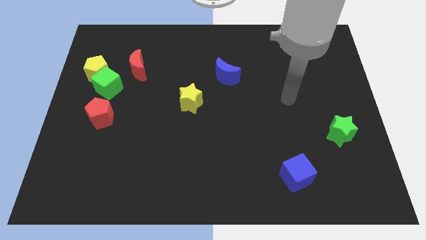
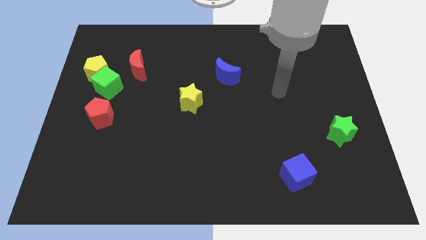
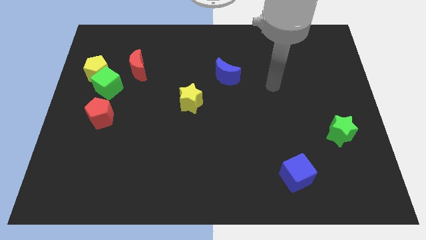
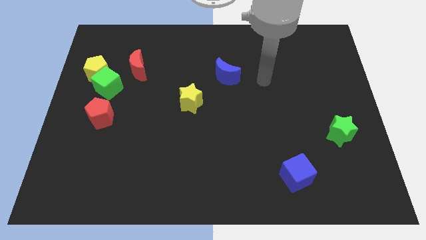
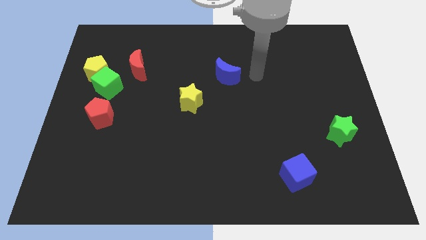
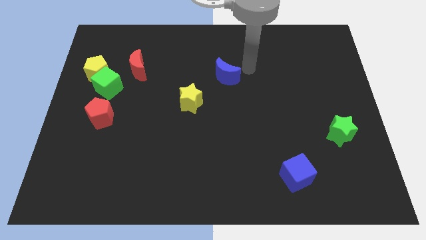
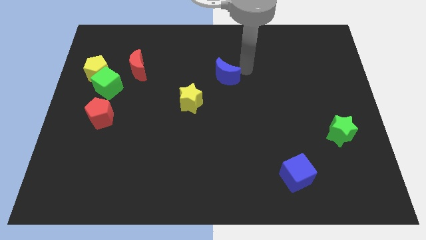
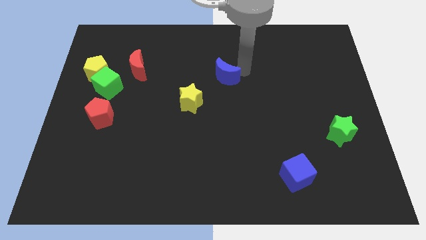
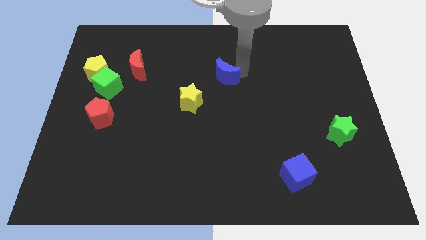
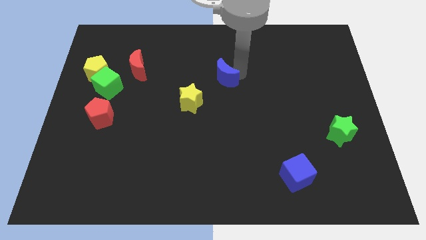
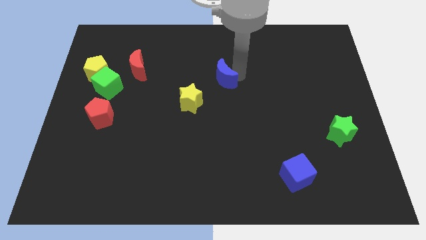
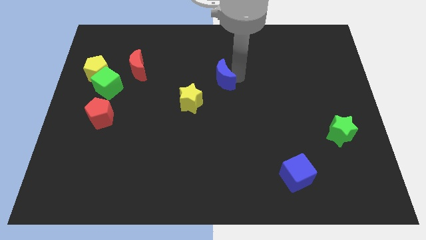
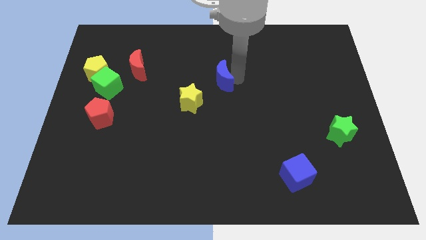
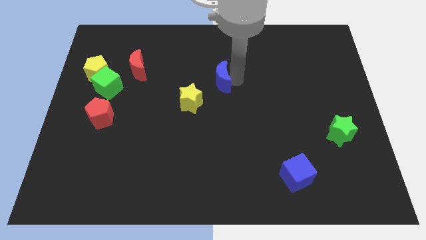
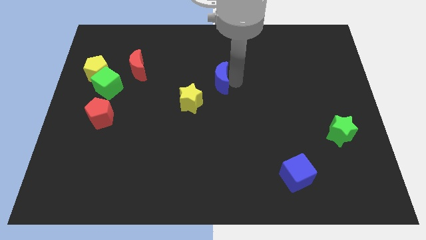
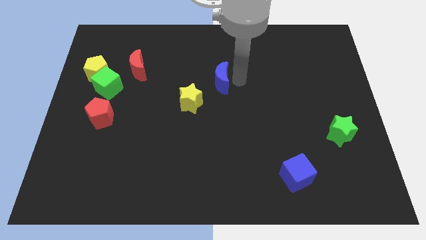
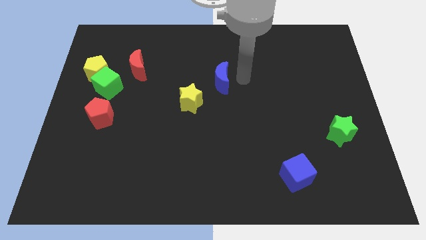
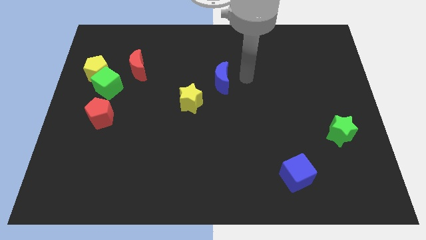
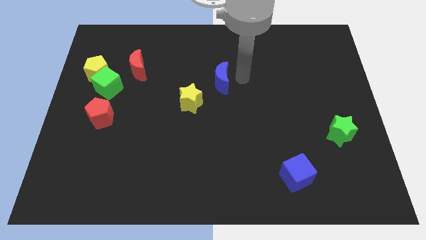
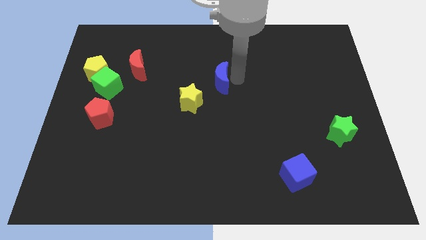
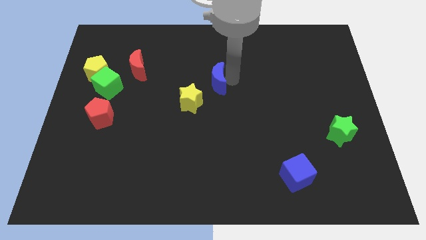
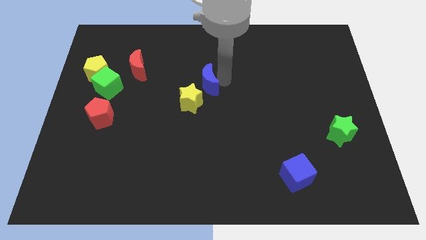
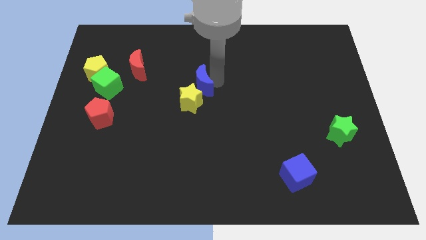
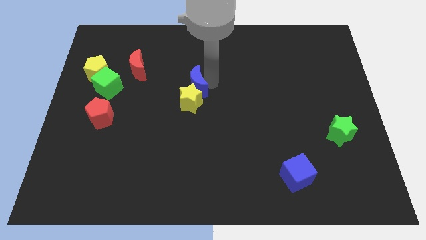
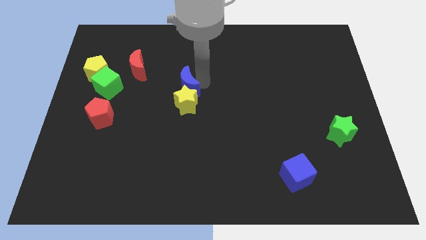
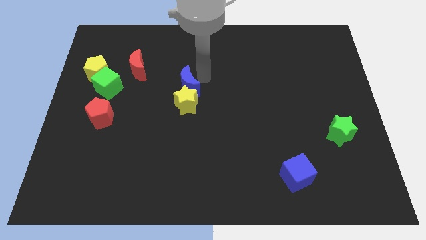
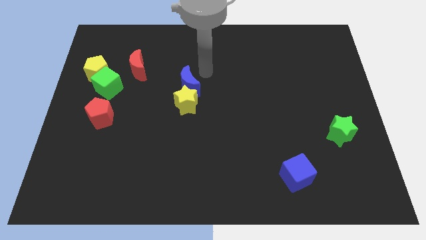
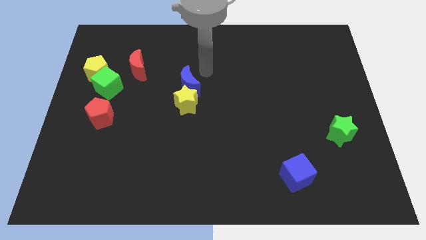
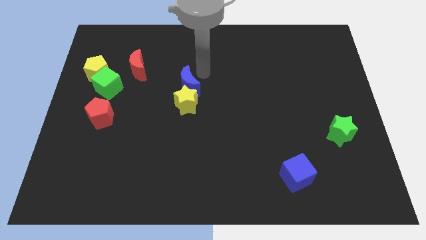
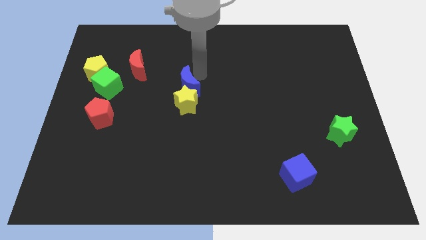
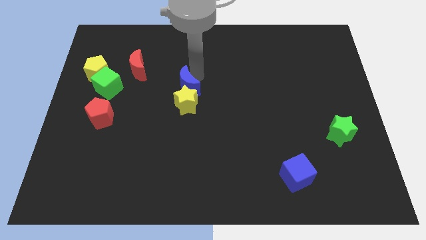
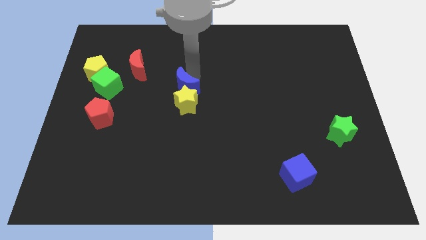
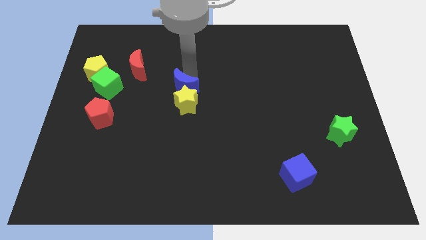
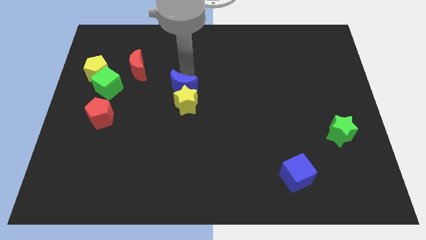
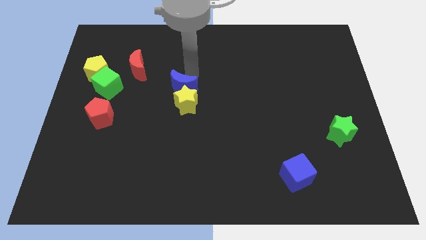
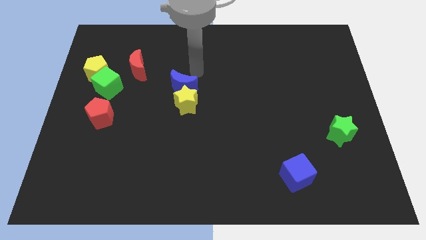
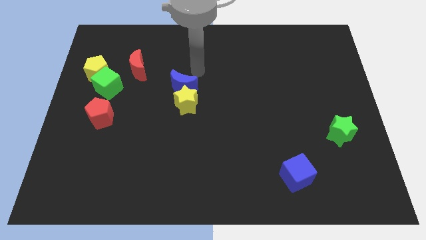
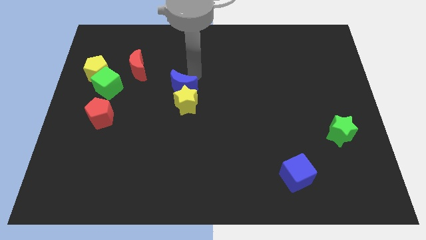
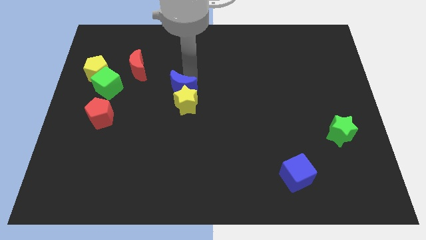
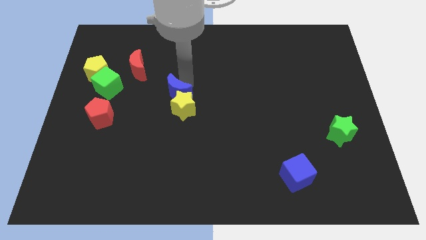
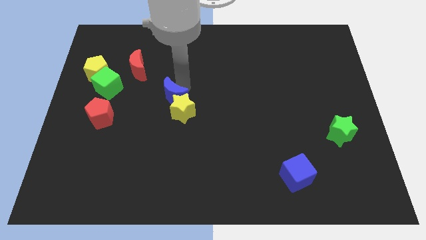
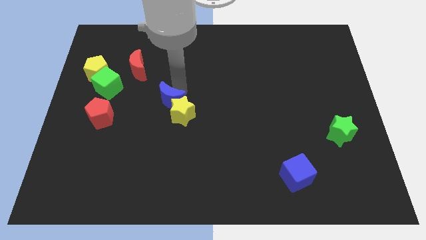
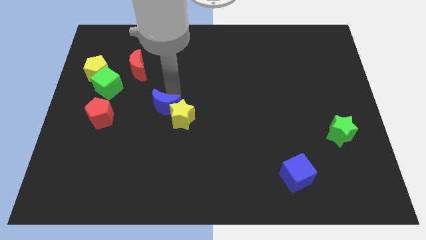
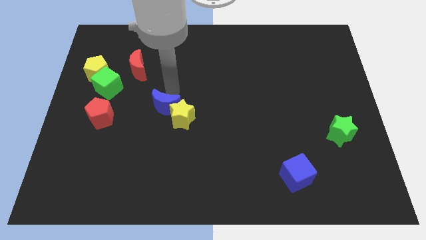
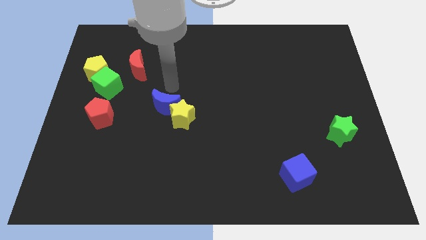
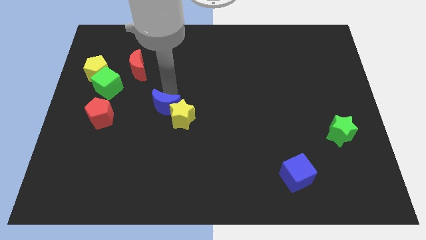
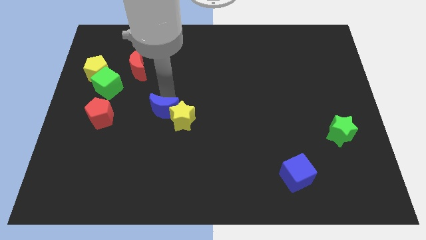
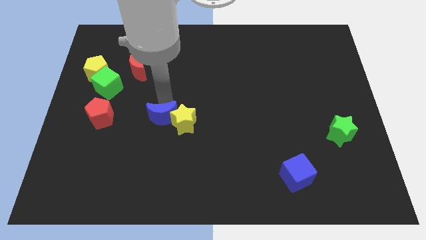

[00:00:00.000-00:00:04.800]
move the blue moon to the bottom left of the yellow star
